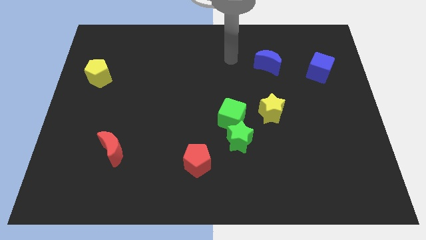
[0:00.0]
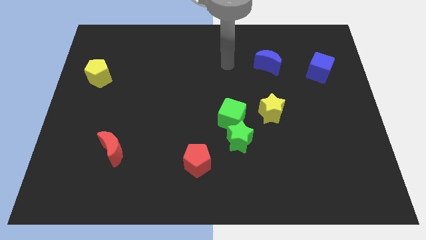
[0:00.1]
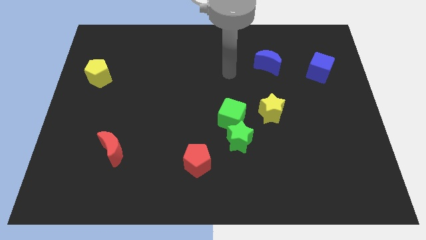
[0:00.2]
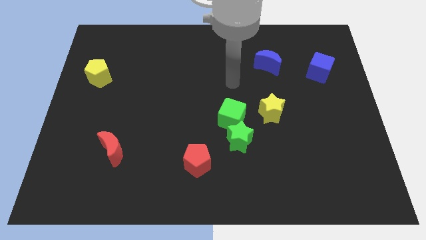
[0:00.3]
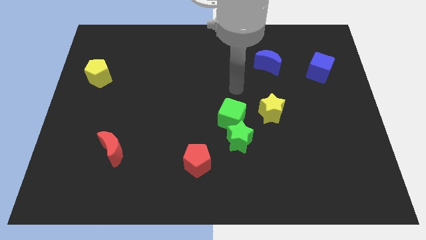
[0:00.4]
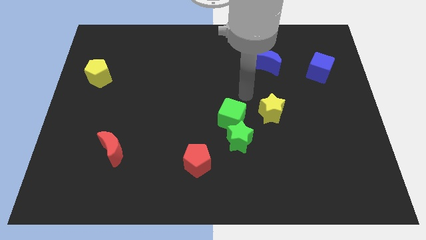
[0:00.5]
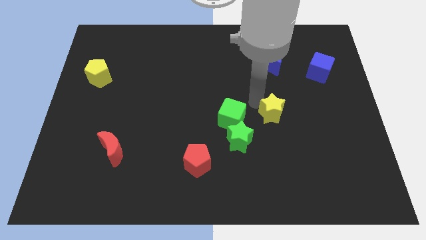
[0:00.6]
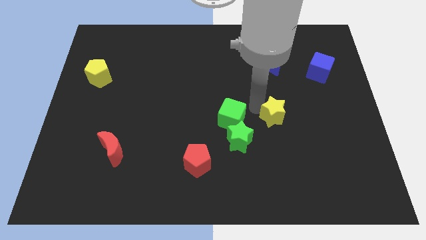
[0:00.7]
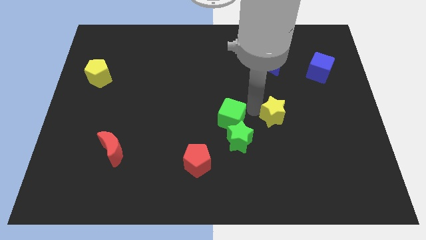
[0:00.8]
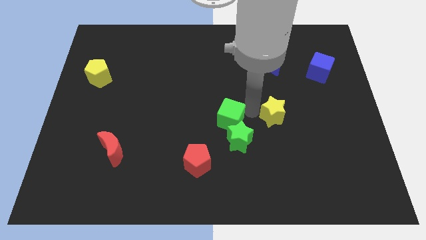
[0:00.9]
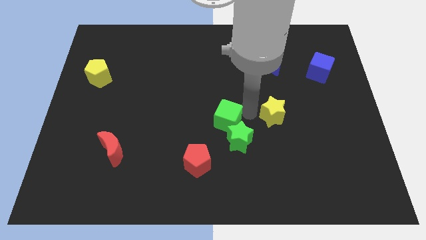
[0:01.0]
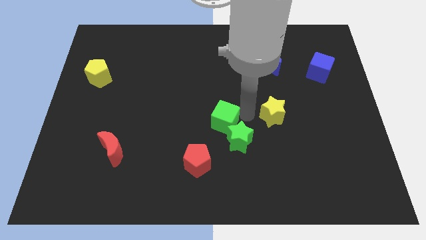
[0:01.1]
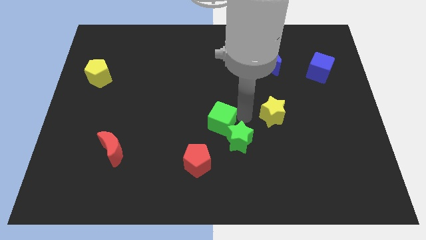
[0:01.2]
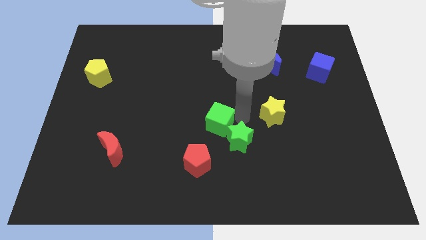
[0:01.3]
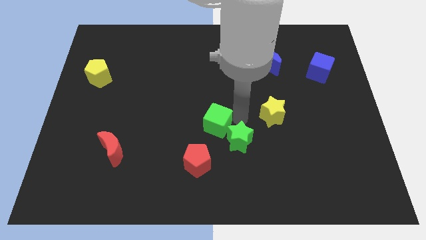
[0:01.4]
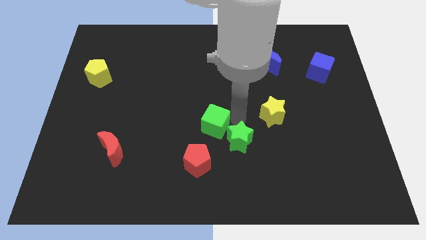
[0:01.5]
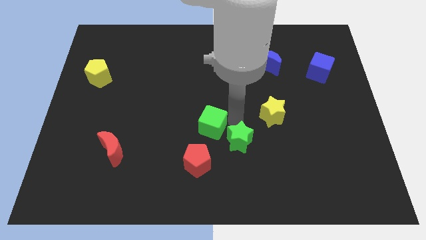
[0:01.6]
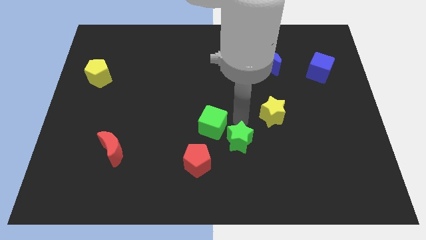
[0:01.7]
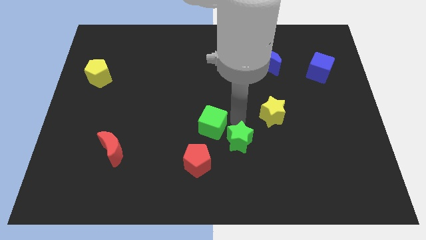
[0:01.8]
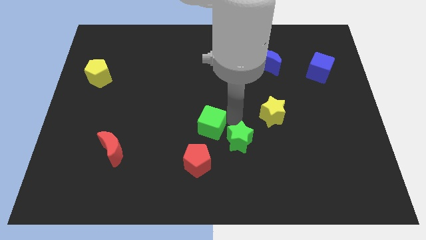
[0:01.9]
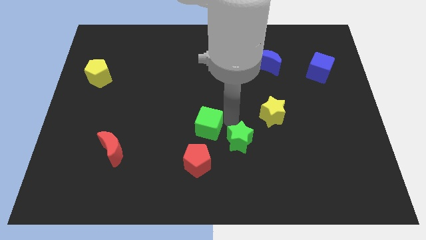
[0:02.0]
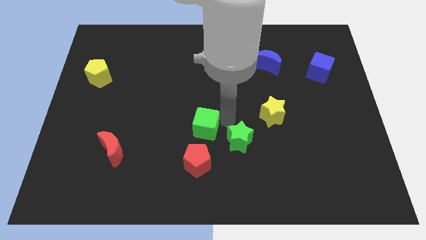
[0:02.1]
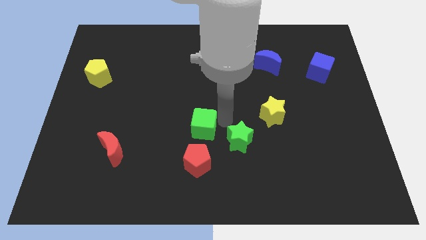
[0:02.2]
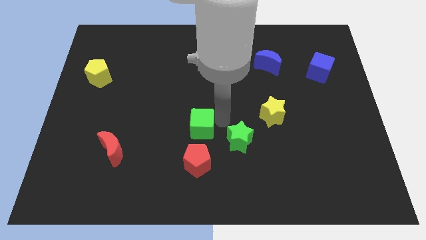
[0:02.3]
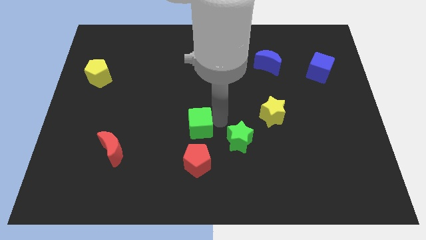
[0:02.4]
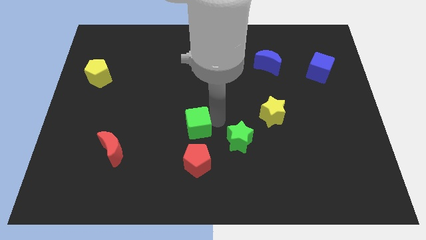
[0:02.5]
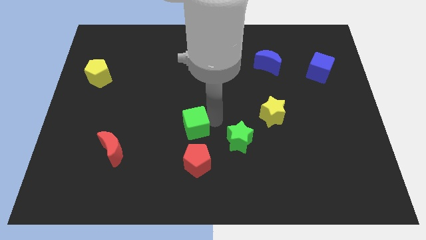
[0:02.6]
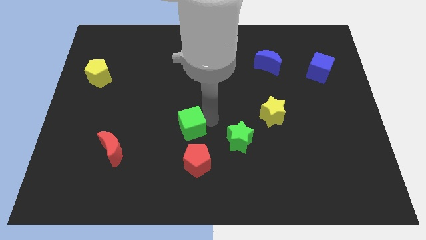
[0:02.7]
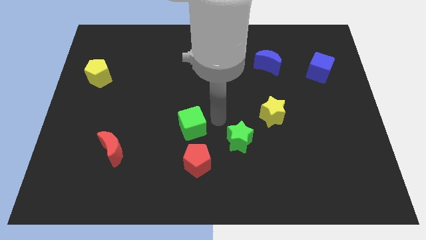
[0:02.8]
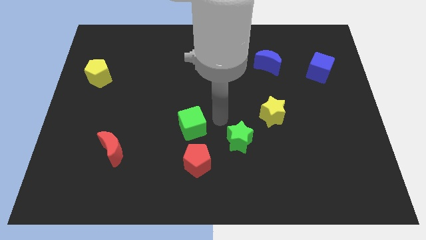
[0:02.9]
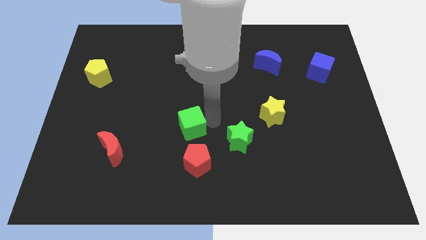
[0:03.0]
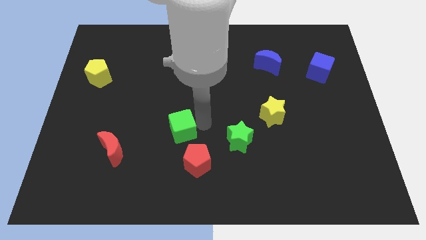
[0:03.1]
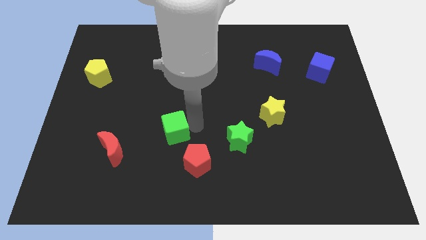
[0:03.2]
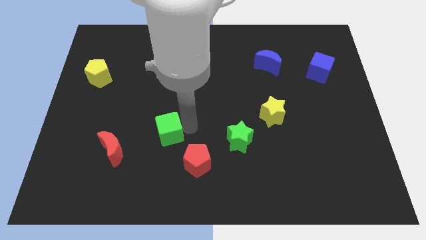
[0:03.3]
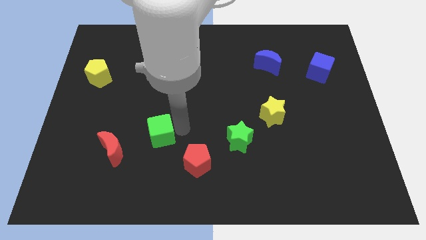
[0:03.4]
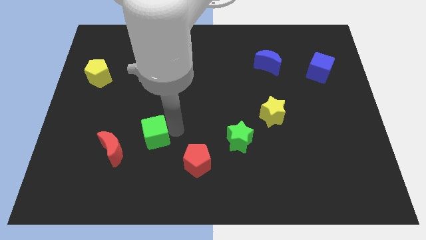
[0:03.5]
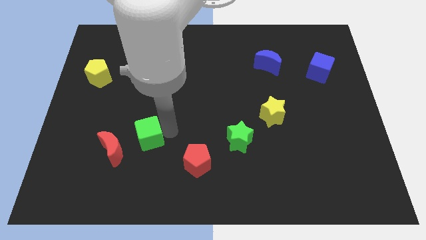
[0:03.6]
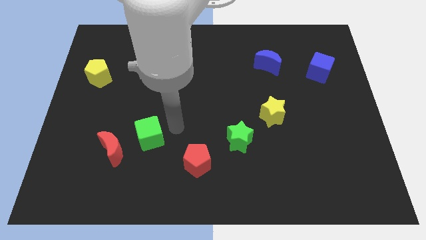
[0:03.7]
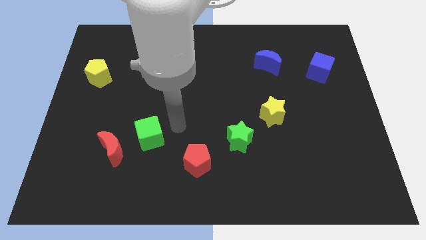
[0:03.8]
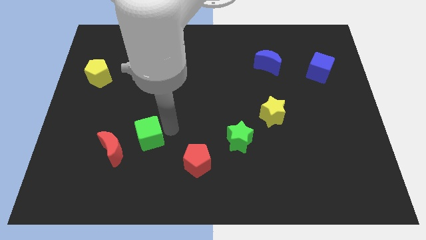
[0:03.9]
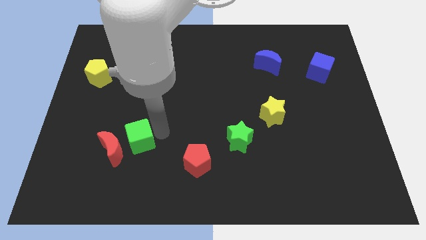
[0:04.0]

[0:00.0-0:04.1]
move the green cube to the red moon

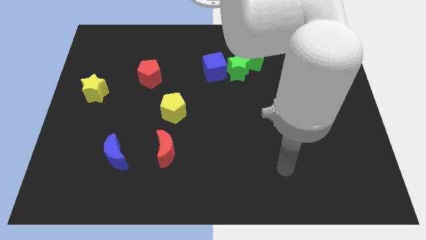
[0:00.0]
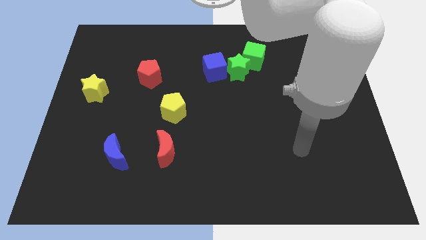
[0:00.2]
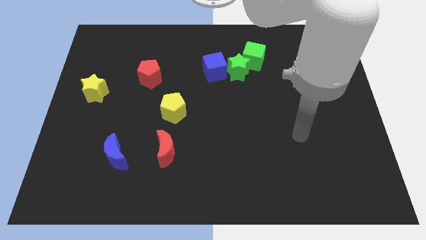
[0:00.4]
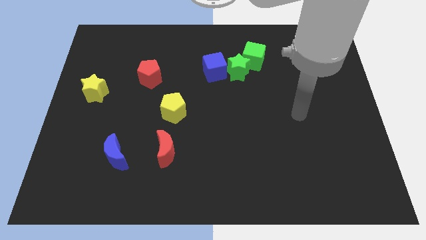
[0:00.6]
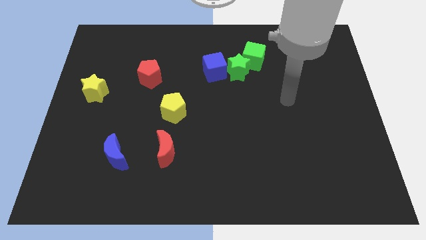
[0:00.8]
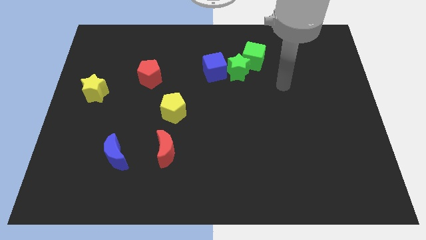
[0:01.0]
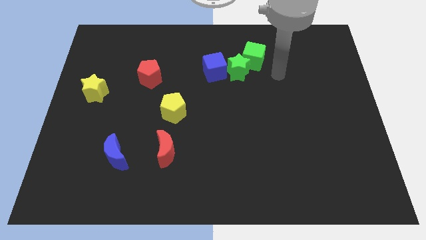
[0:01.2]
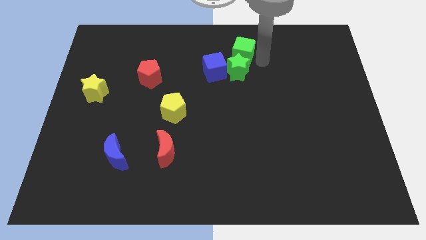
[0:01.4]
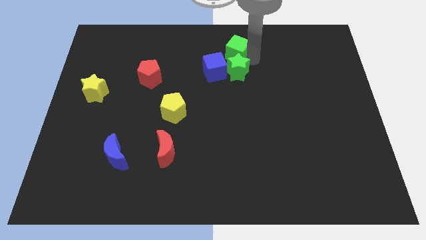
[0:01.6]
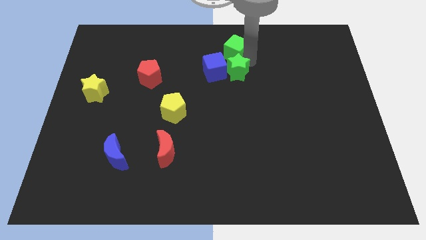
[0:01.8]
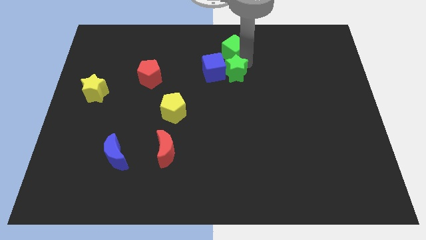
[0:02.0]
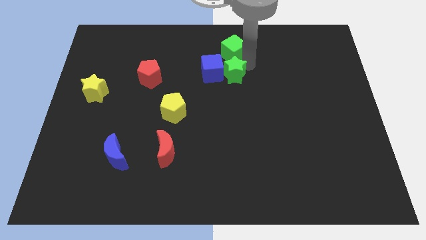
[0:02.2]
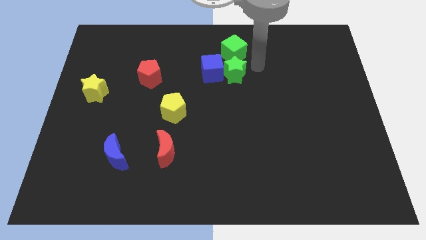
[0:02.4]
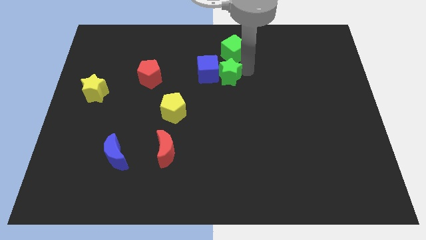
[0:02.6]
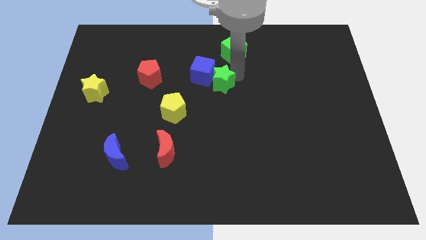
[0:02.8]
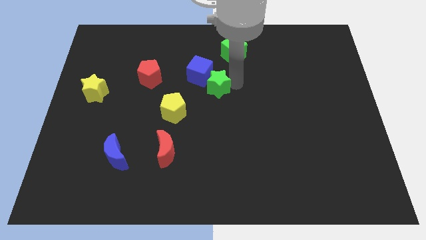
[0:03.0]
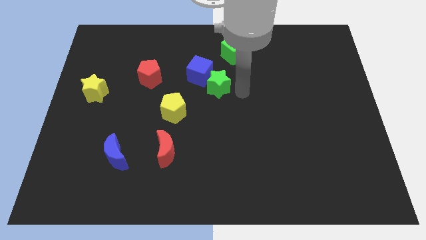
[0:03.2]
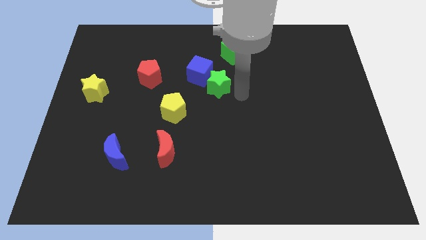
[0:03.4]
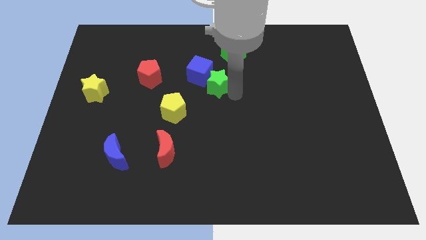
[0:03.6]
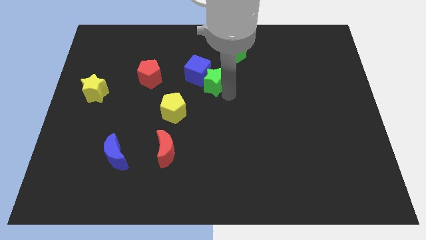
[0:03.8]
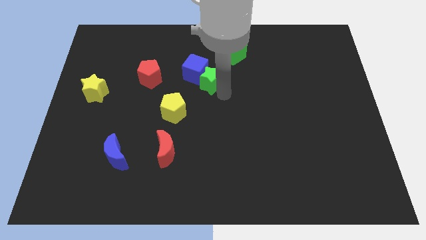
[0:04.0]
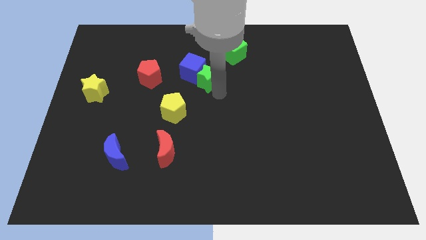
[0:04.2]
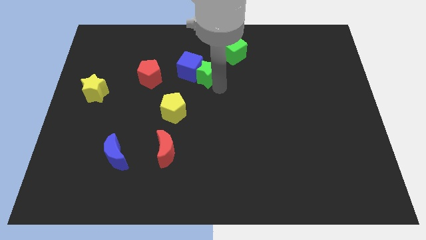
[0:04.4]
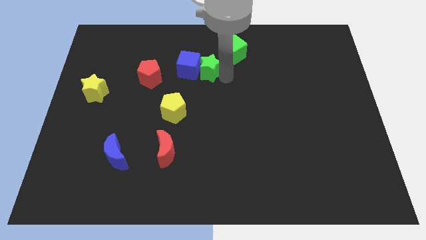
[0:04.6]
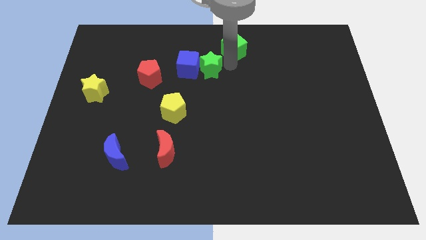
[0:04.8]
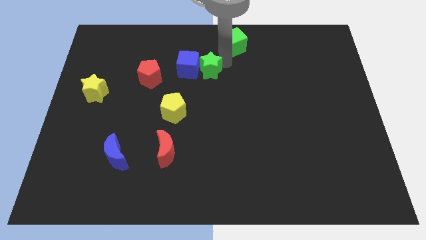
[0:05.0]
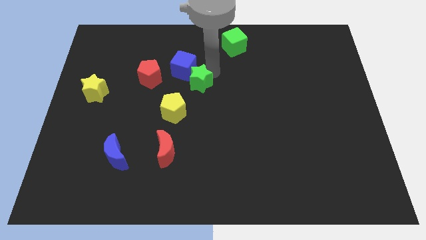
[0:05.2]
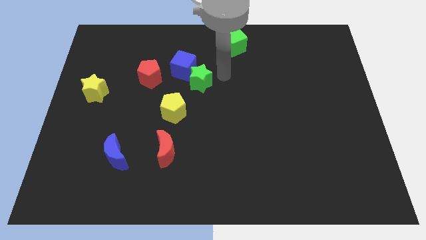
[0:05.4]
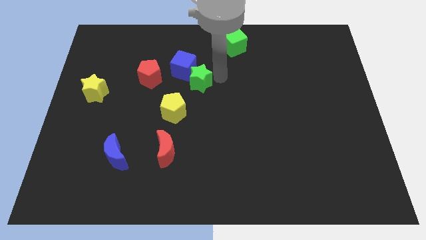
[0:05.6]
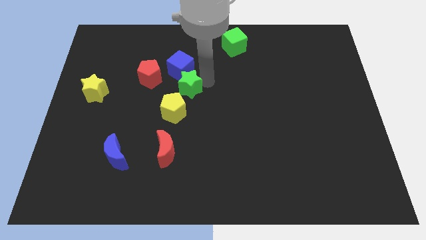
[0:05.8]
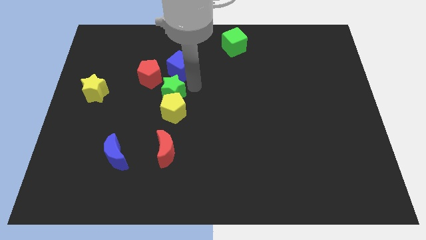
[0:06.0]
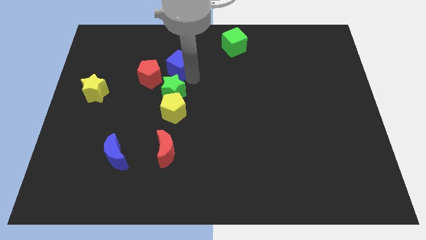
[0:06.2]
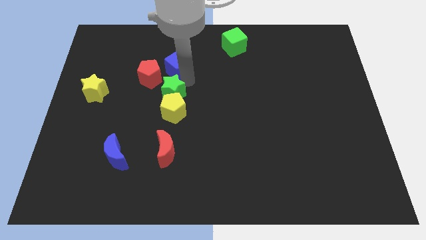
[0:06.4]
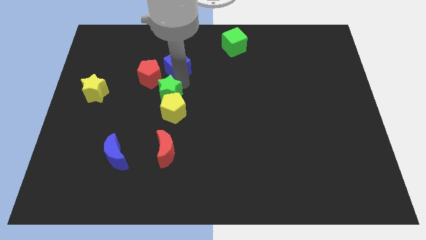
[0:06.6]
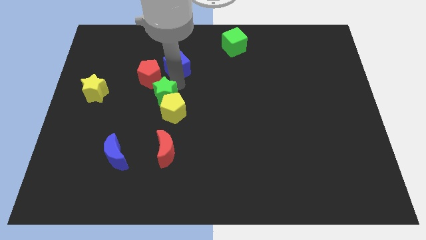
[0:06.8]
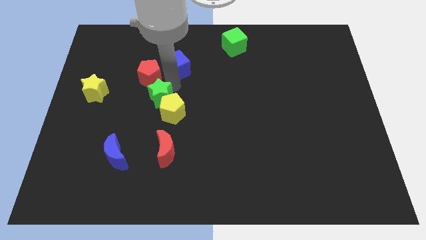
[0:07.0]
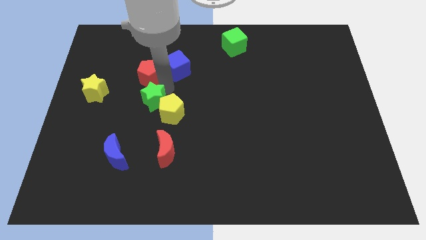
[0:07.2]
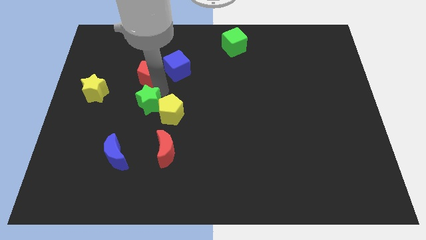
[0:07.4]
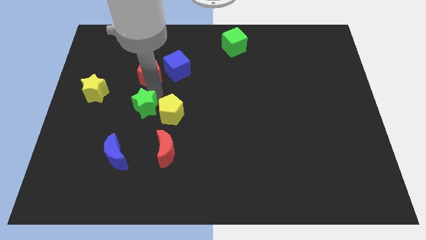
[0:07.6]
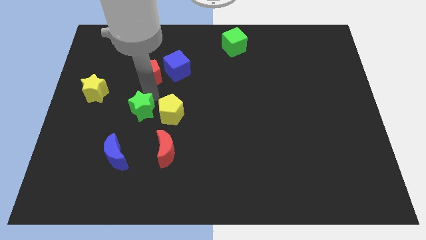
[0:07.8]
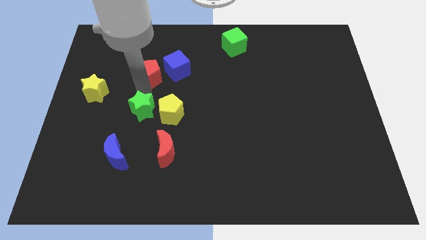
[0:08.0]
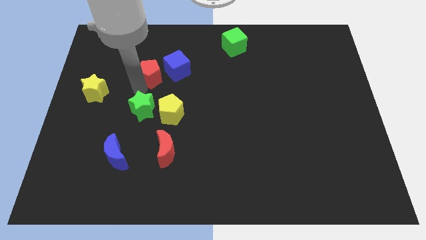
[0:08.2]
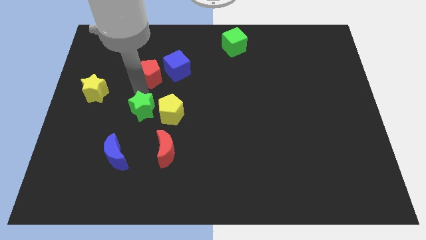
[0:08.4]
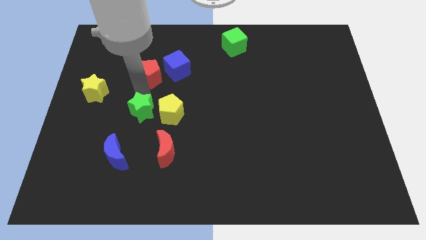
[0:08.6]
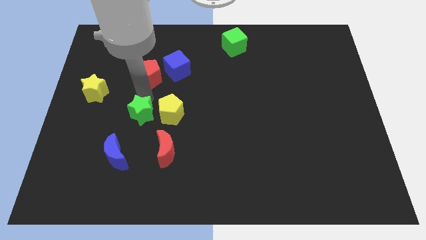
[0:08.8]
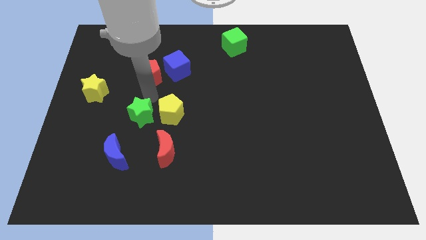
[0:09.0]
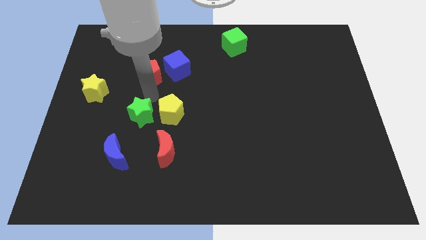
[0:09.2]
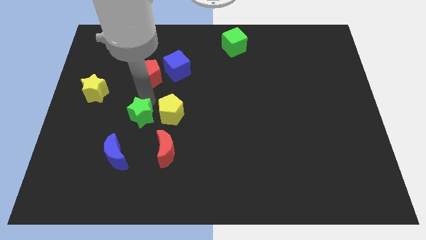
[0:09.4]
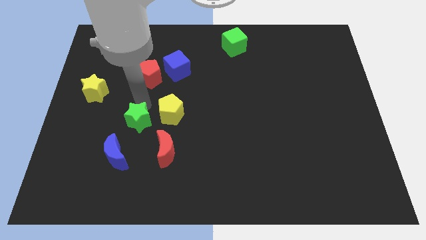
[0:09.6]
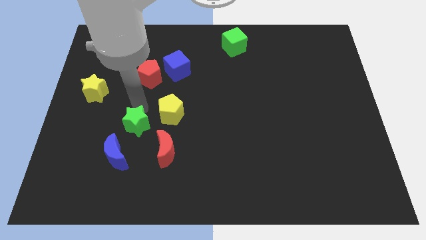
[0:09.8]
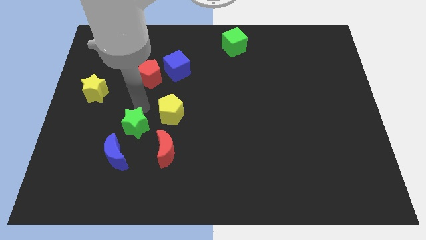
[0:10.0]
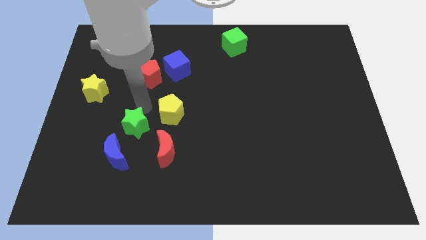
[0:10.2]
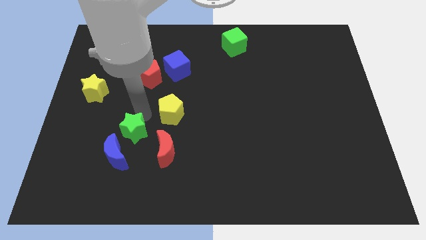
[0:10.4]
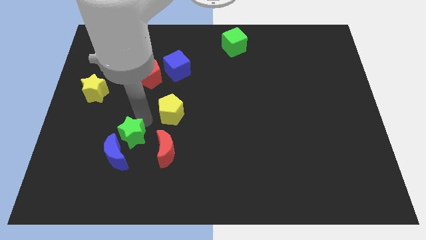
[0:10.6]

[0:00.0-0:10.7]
move the green star close to the blue moon
